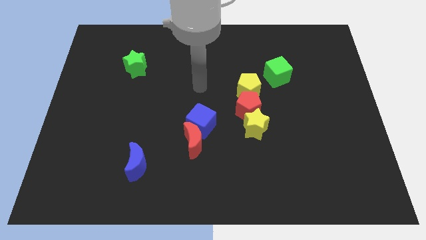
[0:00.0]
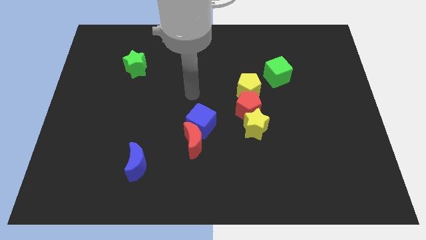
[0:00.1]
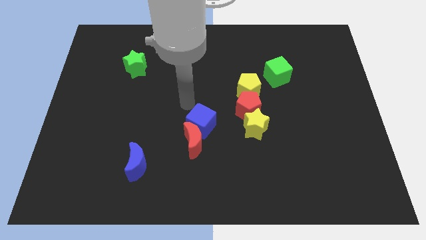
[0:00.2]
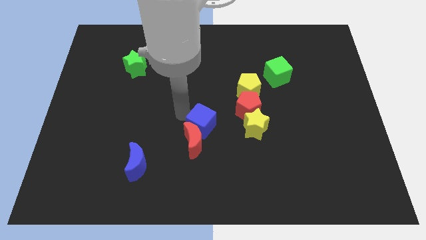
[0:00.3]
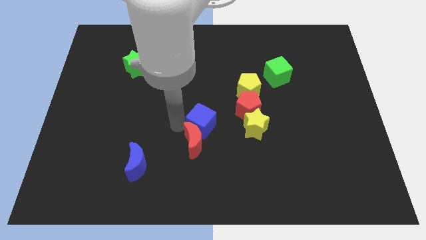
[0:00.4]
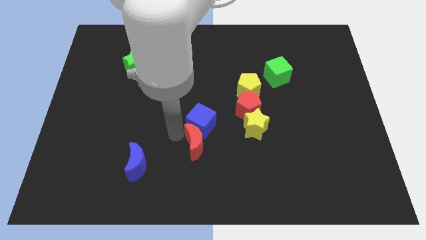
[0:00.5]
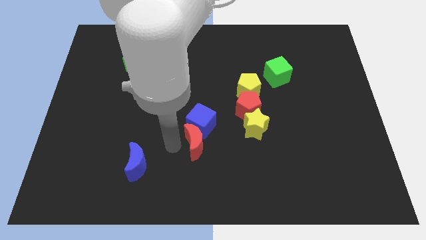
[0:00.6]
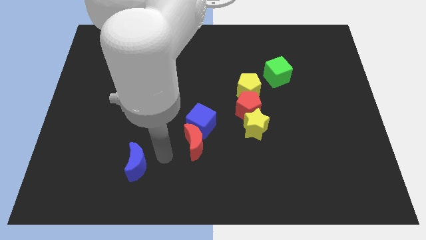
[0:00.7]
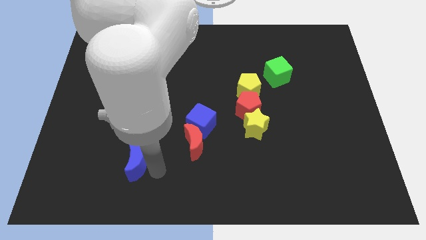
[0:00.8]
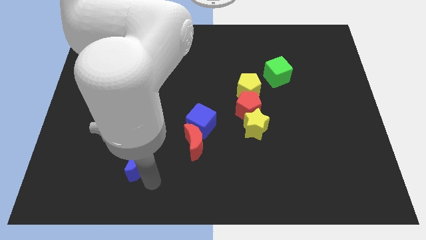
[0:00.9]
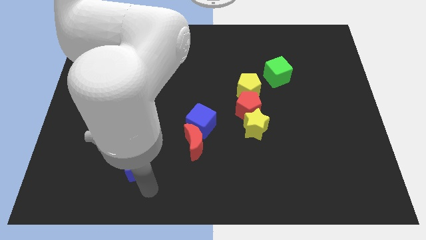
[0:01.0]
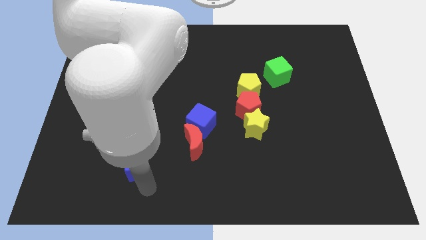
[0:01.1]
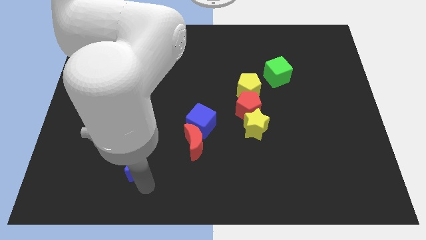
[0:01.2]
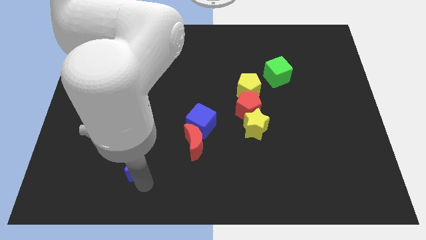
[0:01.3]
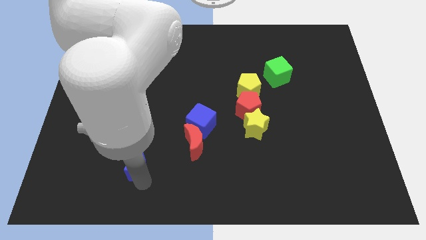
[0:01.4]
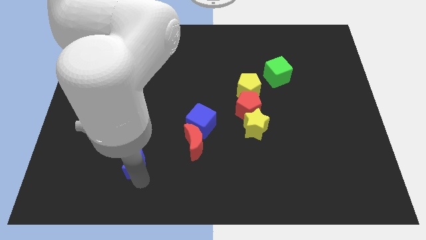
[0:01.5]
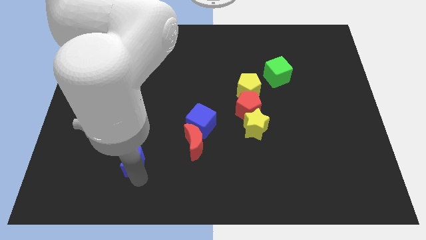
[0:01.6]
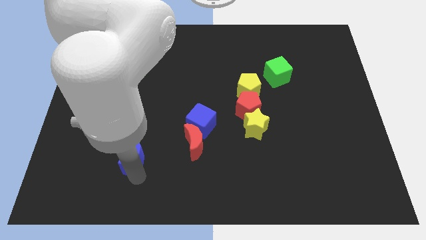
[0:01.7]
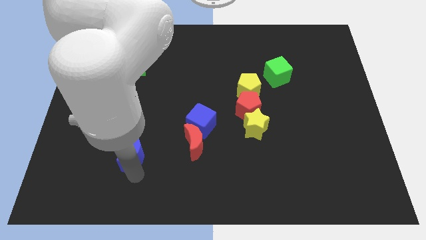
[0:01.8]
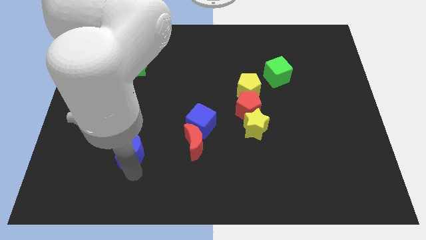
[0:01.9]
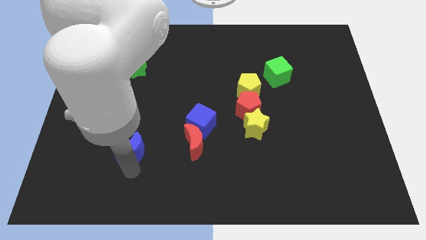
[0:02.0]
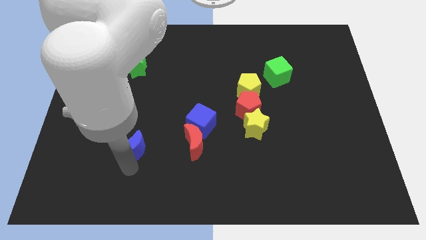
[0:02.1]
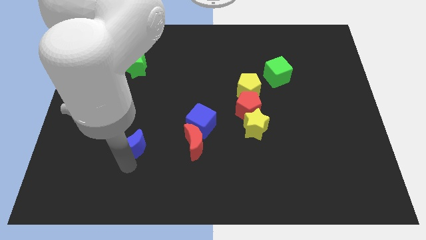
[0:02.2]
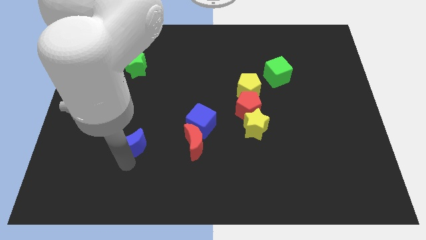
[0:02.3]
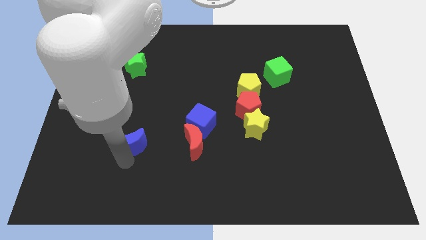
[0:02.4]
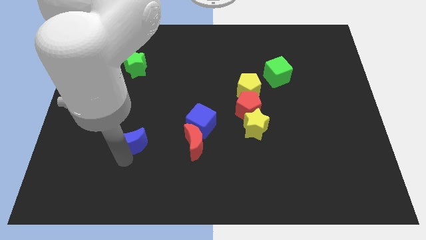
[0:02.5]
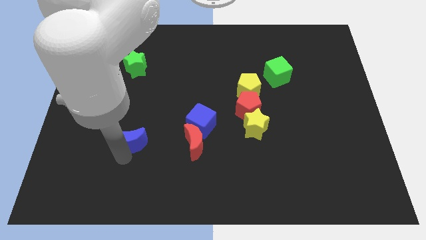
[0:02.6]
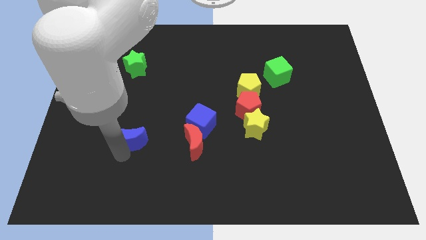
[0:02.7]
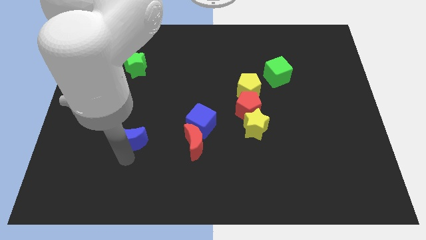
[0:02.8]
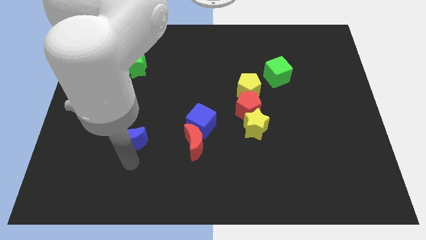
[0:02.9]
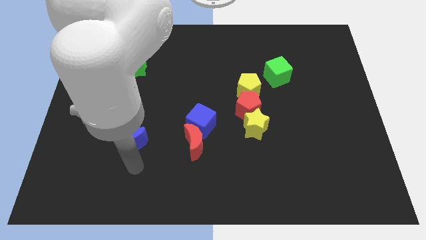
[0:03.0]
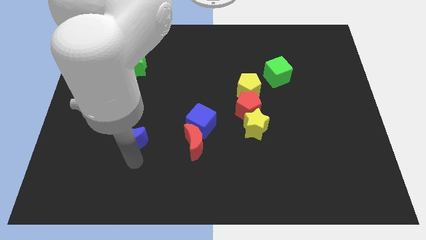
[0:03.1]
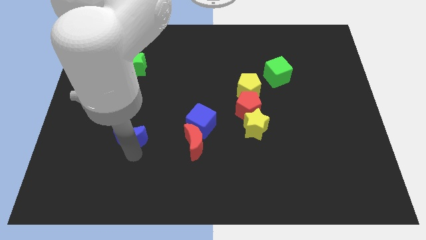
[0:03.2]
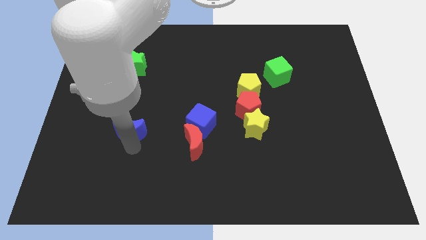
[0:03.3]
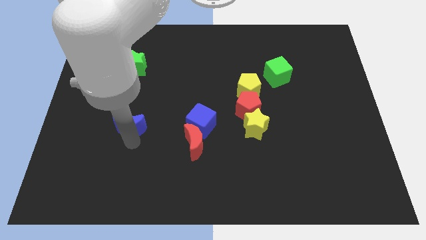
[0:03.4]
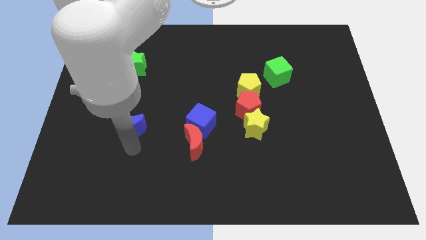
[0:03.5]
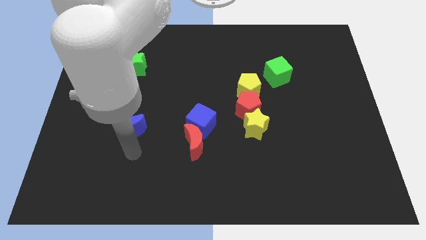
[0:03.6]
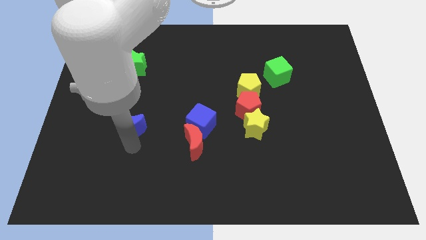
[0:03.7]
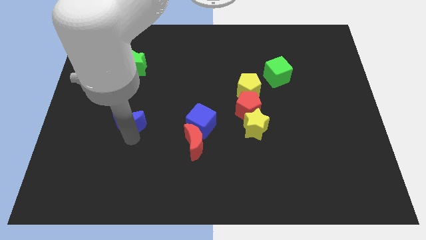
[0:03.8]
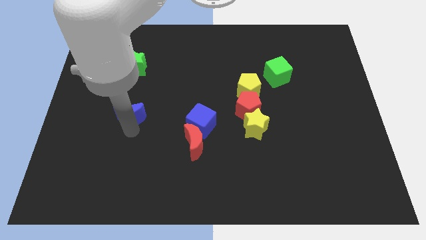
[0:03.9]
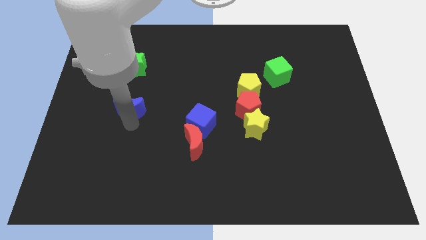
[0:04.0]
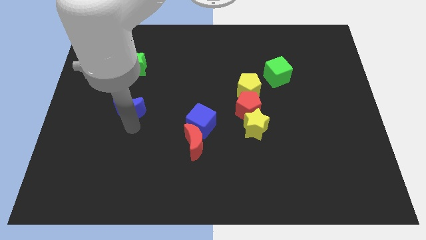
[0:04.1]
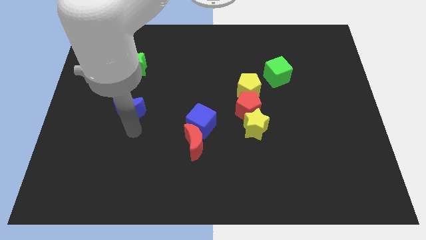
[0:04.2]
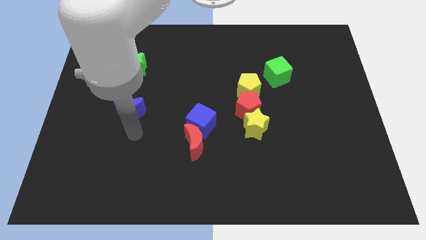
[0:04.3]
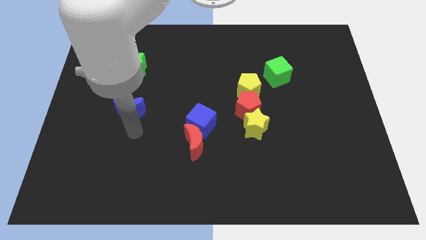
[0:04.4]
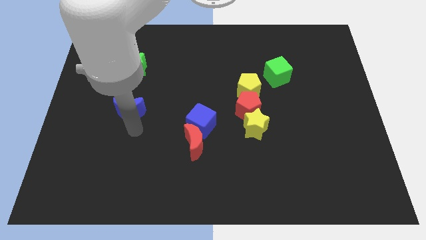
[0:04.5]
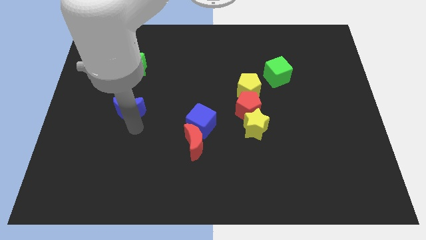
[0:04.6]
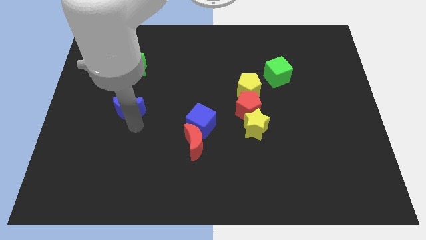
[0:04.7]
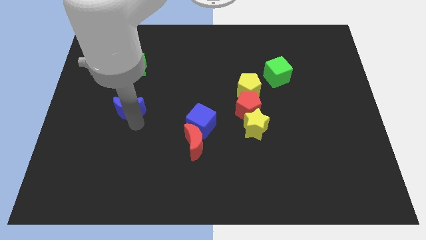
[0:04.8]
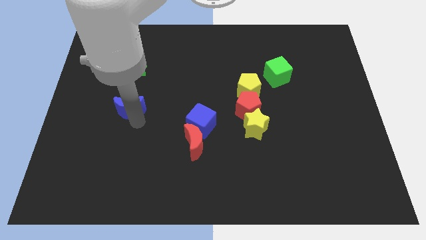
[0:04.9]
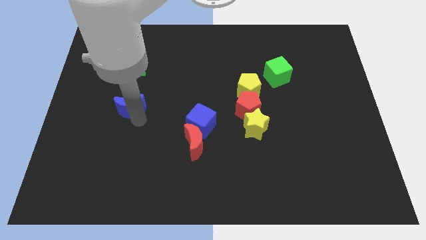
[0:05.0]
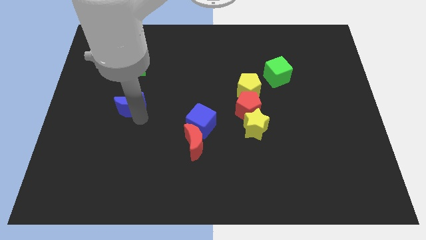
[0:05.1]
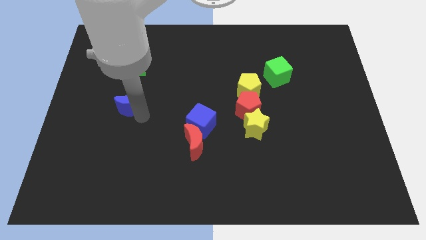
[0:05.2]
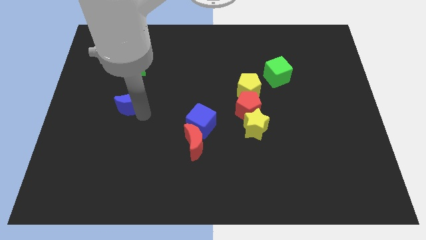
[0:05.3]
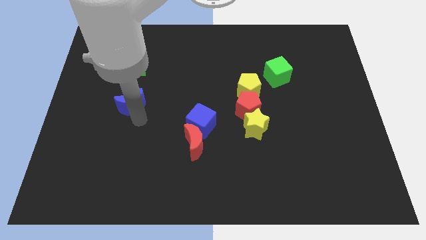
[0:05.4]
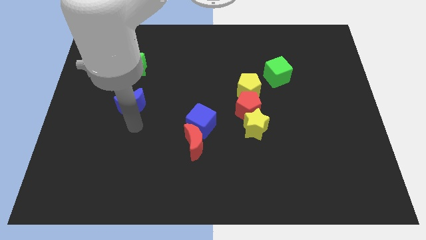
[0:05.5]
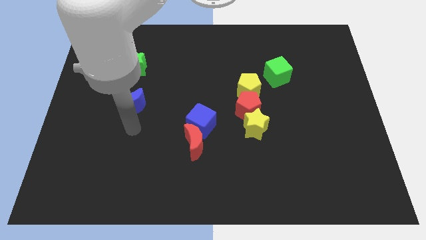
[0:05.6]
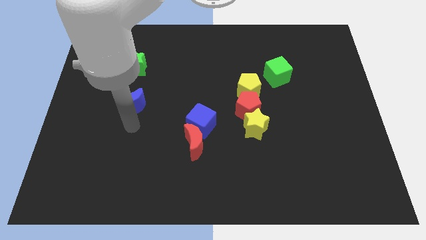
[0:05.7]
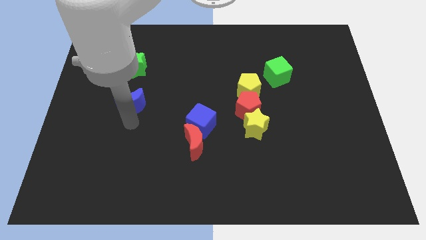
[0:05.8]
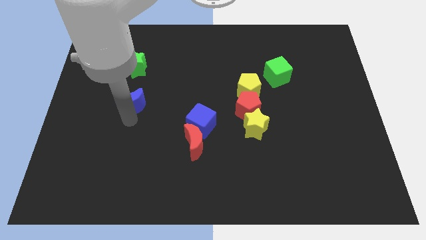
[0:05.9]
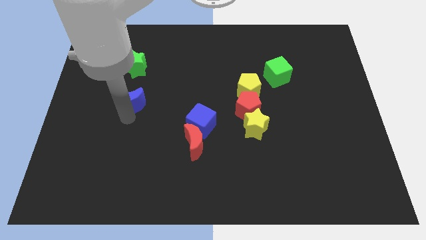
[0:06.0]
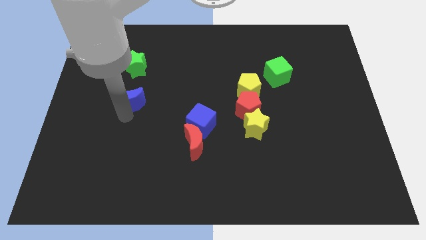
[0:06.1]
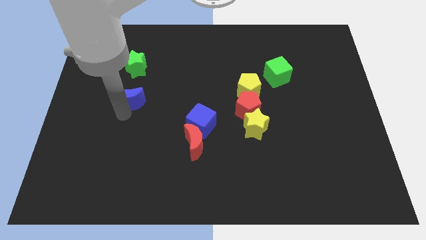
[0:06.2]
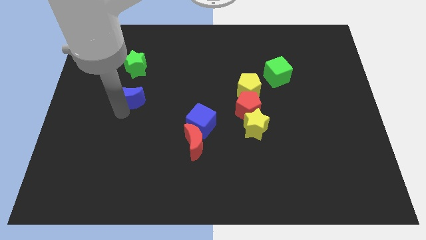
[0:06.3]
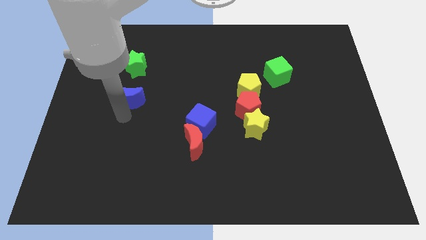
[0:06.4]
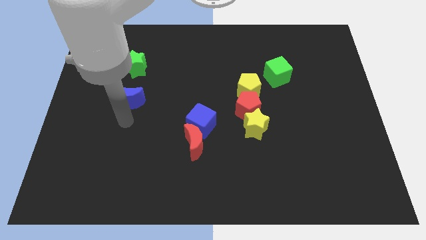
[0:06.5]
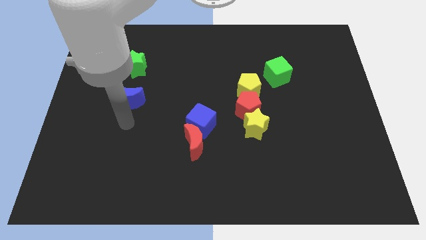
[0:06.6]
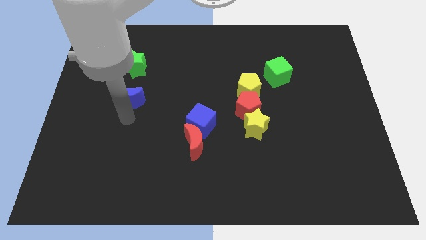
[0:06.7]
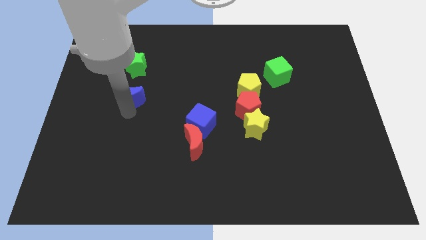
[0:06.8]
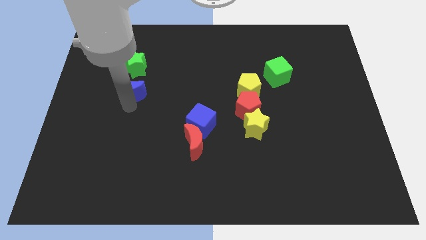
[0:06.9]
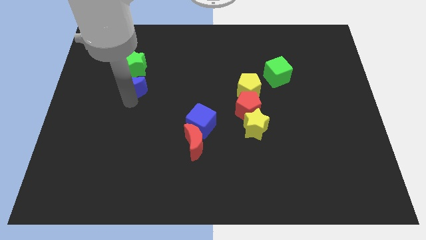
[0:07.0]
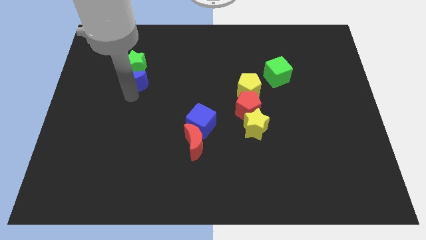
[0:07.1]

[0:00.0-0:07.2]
put the blue moon next to the green star
